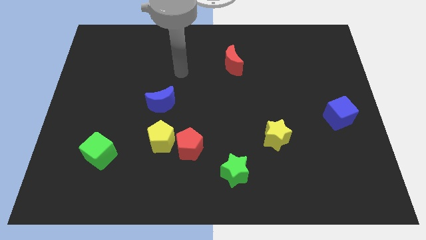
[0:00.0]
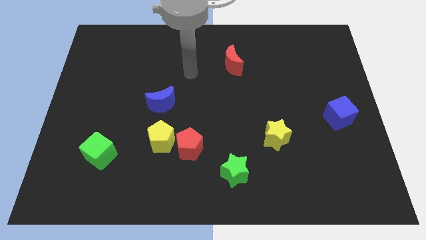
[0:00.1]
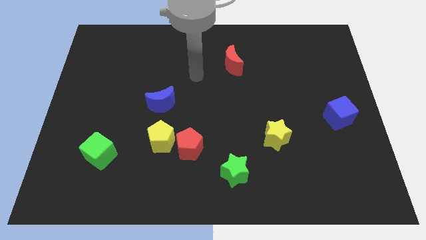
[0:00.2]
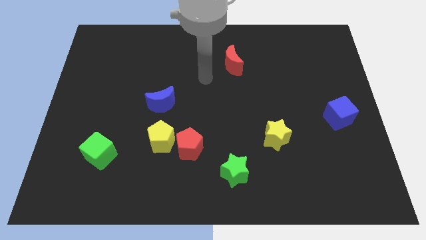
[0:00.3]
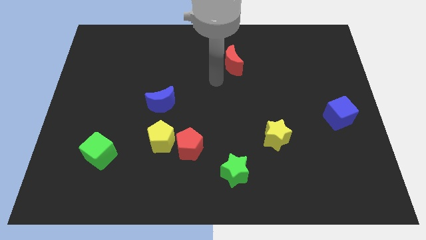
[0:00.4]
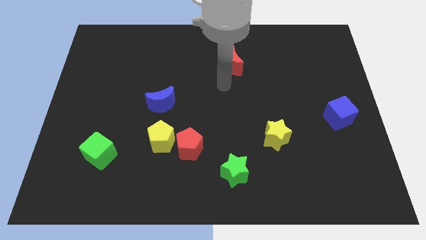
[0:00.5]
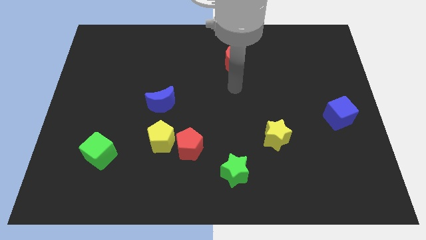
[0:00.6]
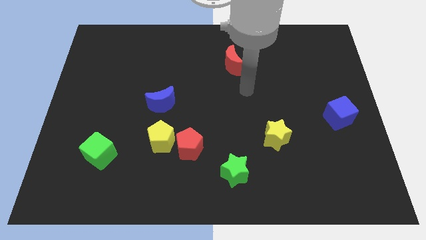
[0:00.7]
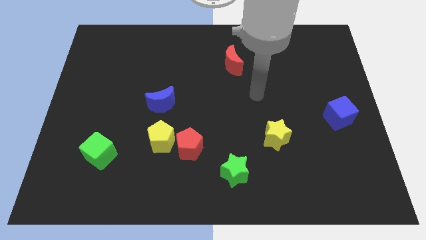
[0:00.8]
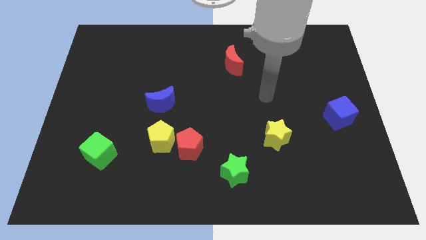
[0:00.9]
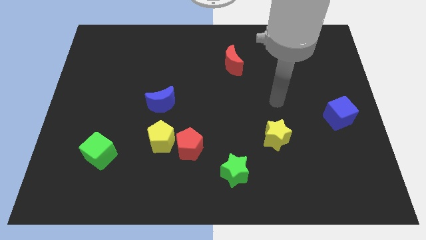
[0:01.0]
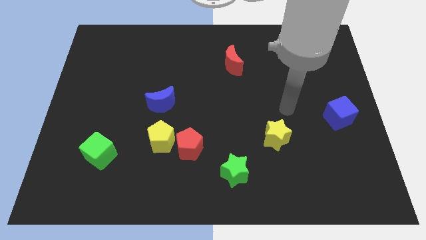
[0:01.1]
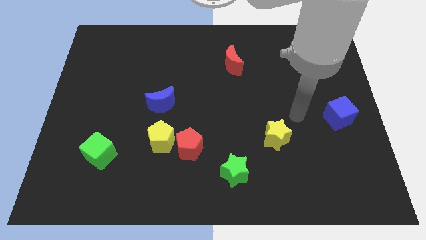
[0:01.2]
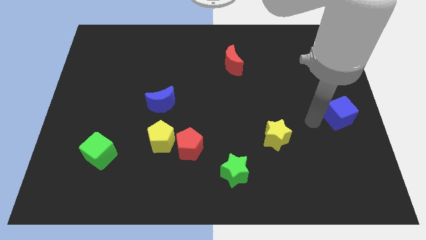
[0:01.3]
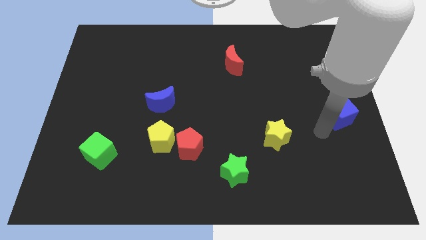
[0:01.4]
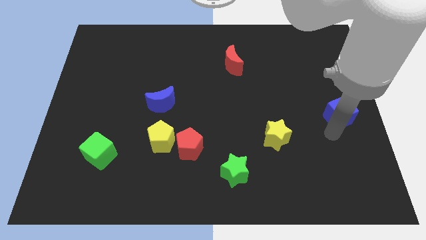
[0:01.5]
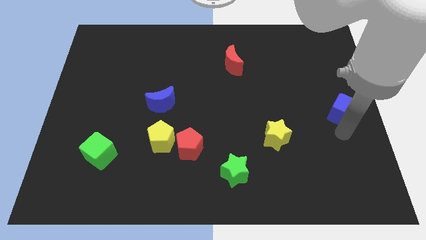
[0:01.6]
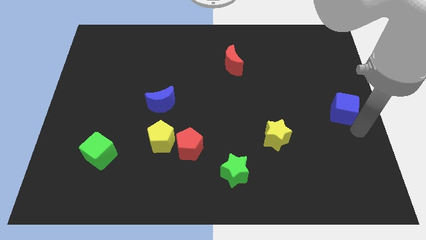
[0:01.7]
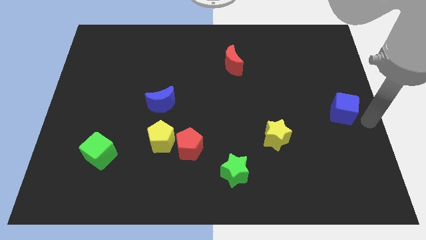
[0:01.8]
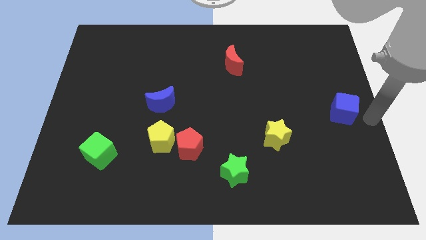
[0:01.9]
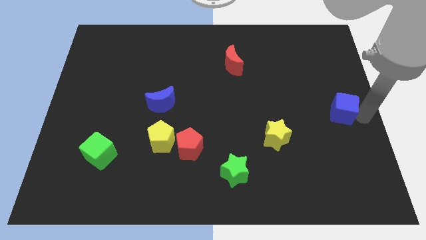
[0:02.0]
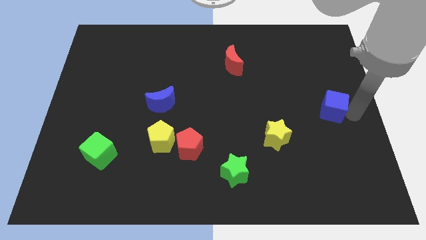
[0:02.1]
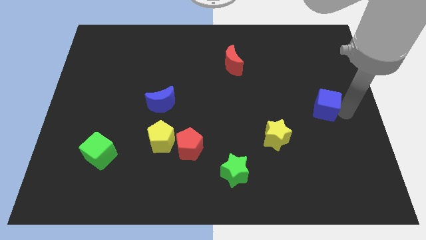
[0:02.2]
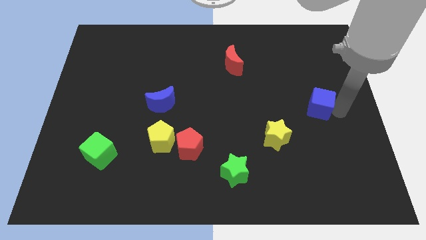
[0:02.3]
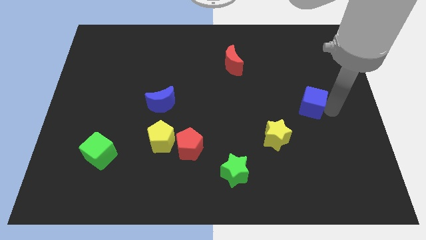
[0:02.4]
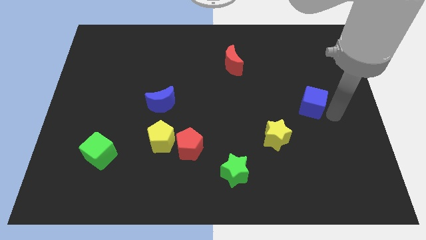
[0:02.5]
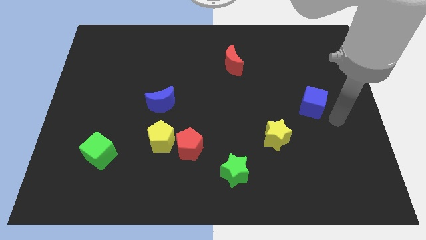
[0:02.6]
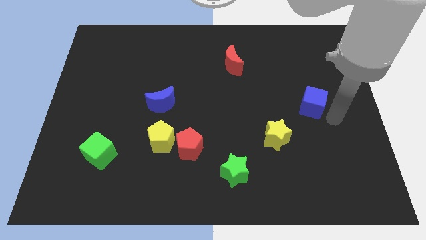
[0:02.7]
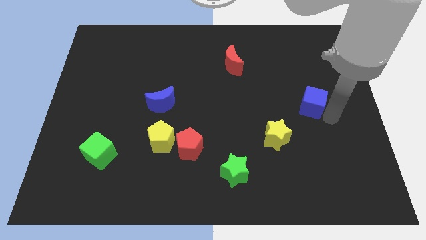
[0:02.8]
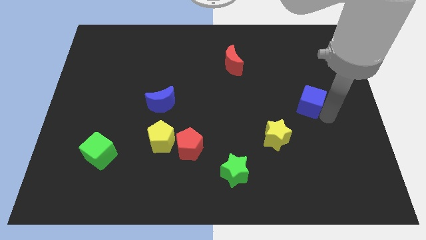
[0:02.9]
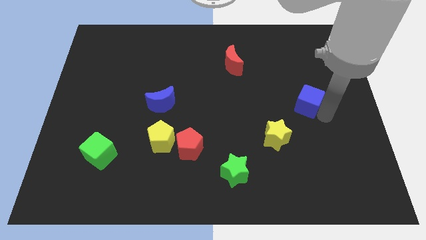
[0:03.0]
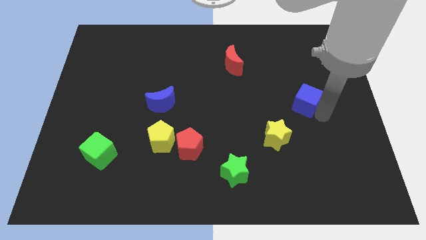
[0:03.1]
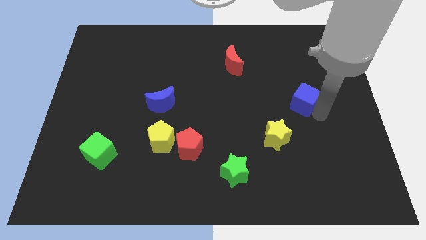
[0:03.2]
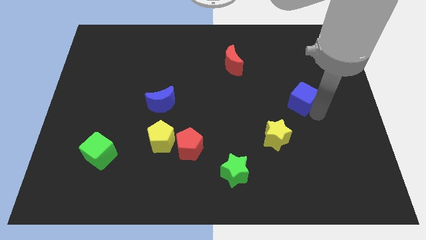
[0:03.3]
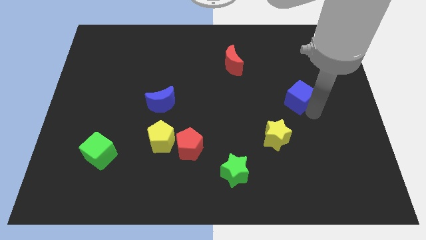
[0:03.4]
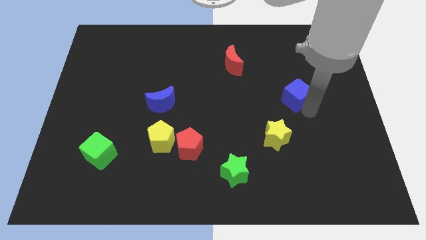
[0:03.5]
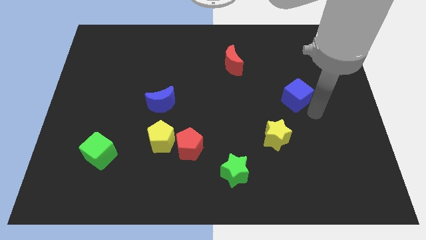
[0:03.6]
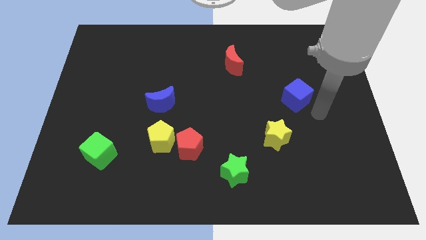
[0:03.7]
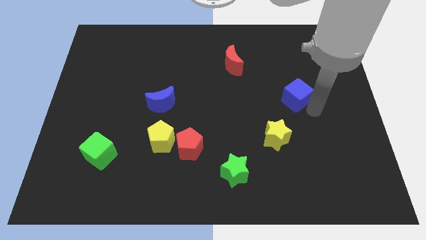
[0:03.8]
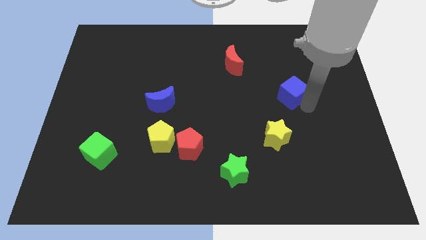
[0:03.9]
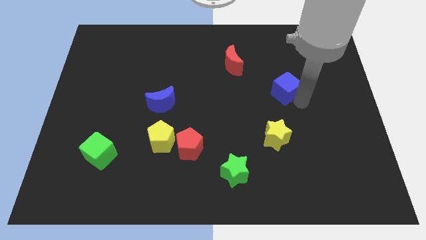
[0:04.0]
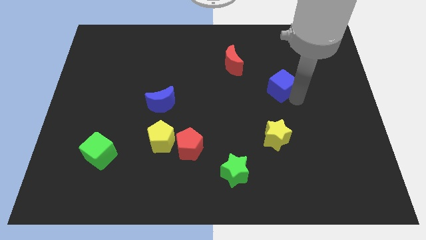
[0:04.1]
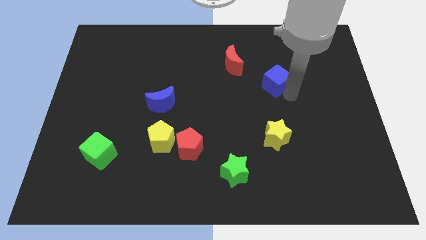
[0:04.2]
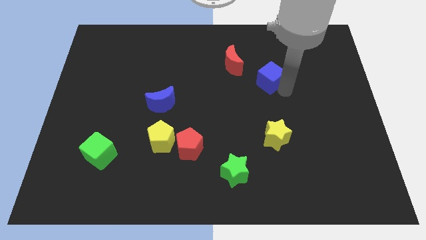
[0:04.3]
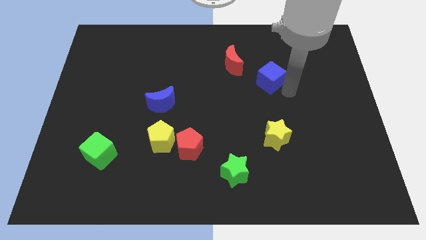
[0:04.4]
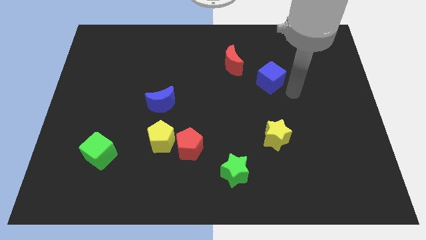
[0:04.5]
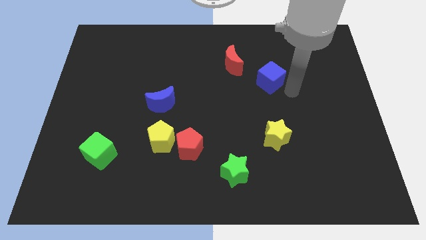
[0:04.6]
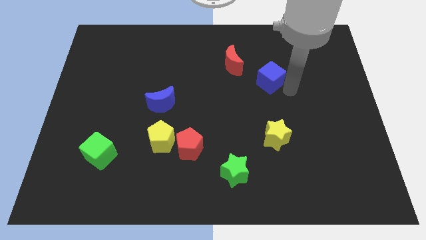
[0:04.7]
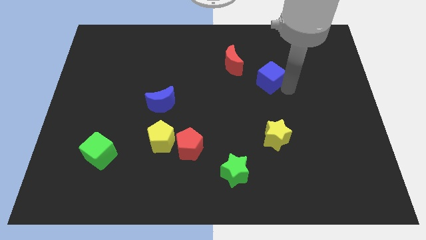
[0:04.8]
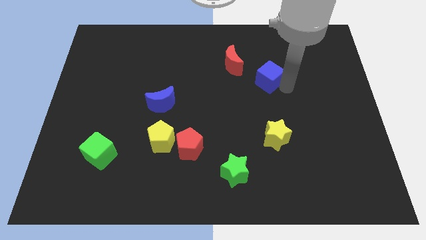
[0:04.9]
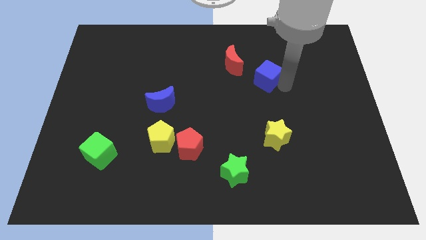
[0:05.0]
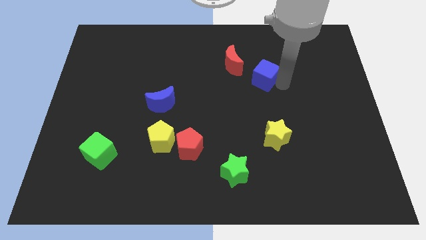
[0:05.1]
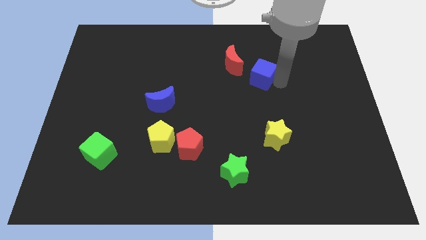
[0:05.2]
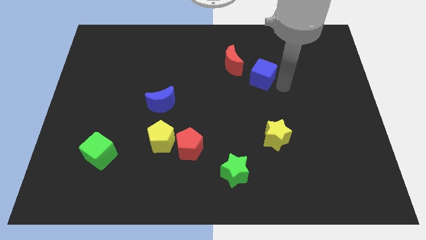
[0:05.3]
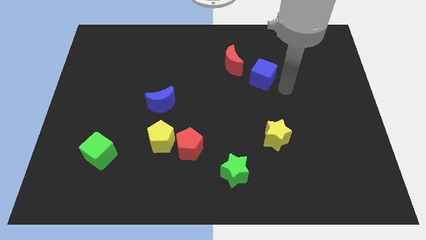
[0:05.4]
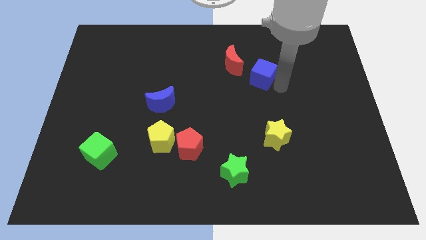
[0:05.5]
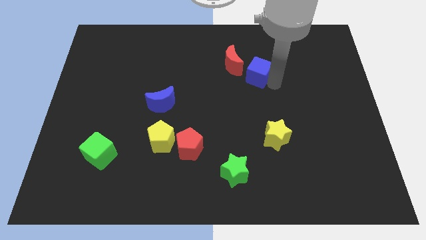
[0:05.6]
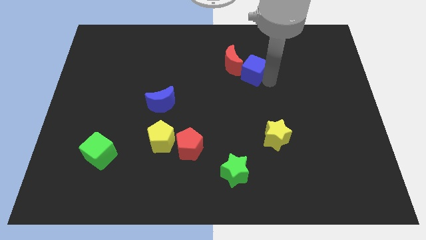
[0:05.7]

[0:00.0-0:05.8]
move the blue cube next to the red moon
